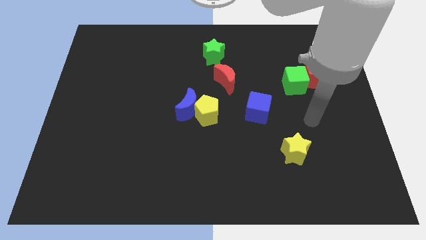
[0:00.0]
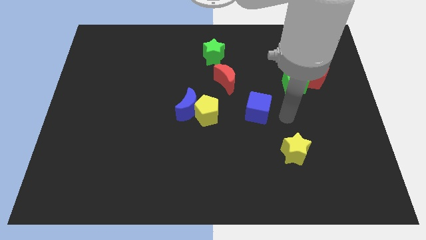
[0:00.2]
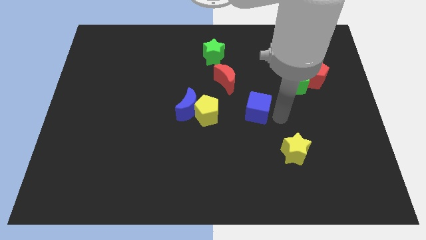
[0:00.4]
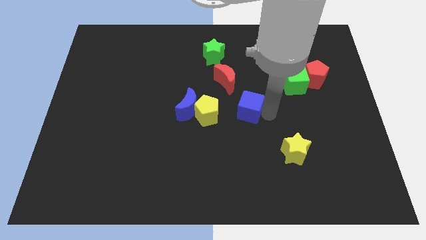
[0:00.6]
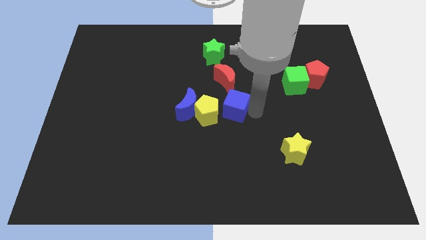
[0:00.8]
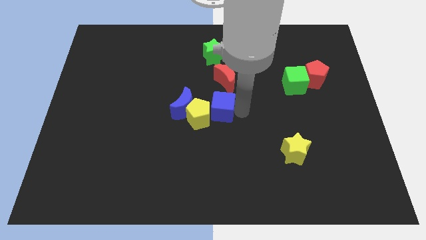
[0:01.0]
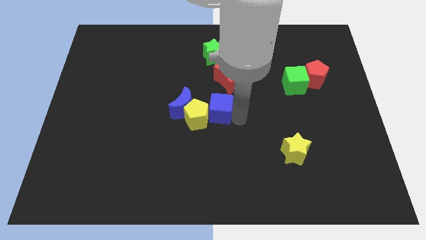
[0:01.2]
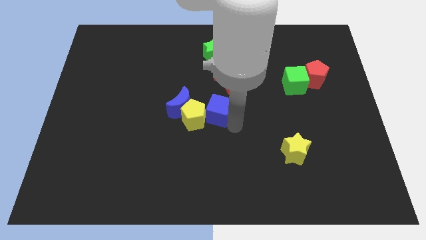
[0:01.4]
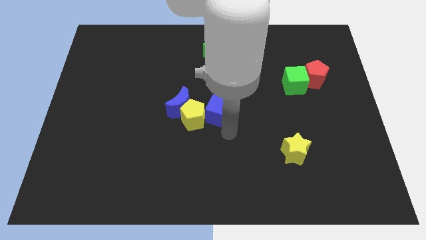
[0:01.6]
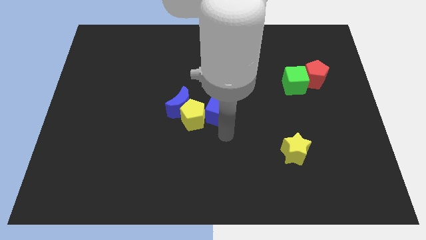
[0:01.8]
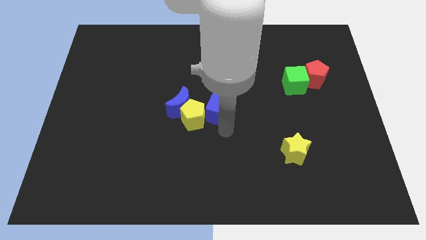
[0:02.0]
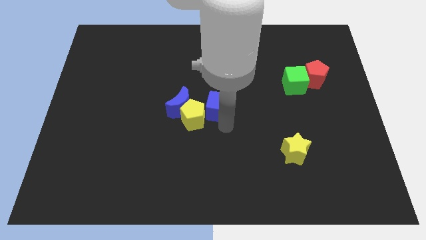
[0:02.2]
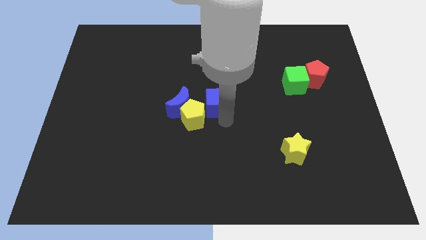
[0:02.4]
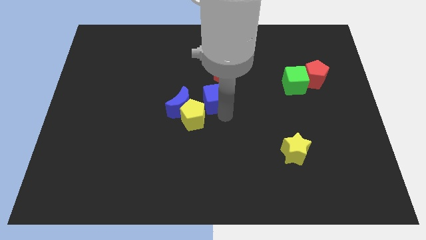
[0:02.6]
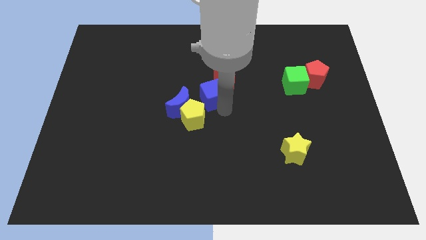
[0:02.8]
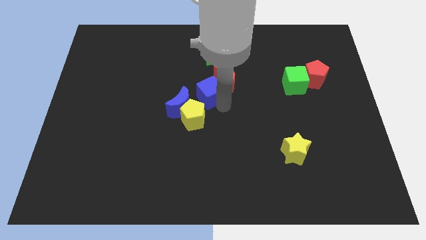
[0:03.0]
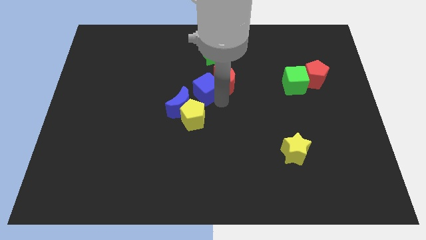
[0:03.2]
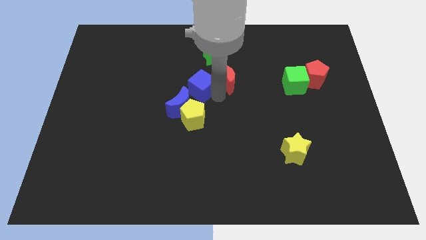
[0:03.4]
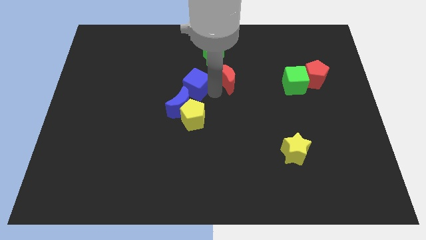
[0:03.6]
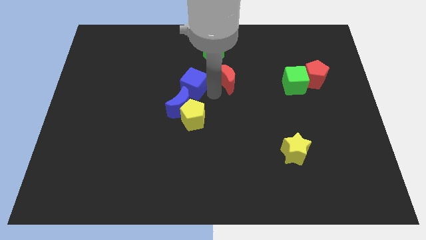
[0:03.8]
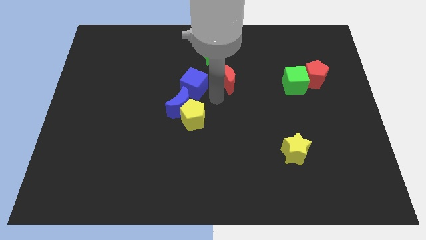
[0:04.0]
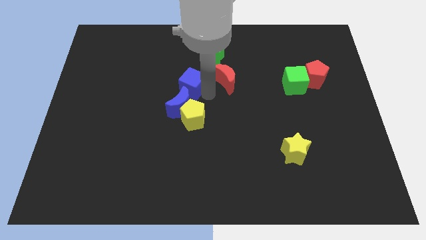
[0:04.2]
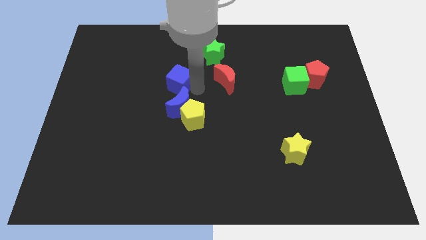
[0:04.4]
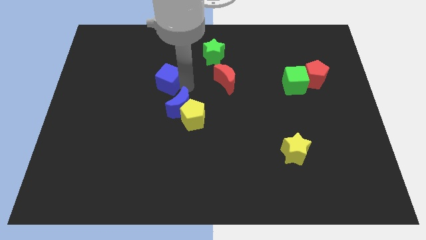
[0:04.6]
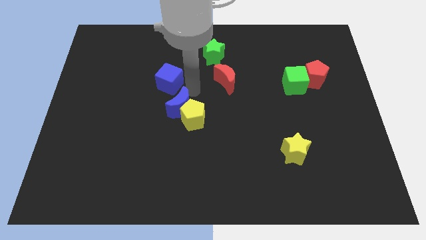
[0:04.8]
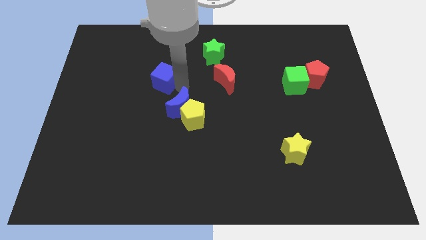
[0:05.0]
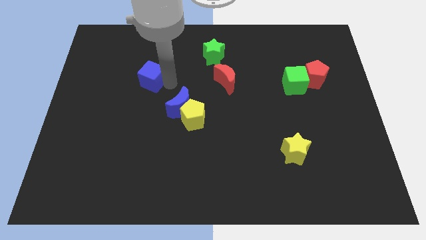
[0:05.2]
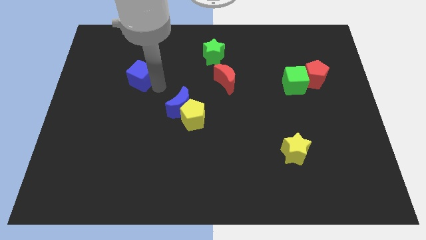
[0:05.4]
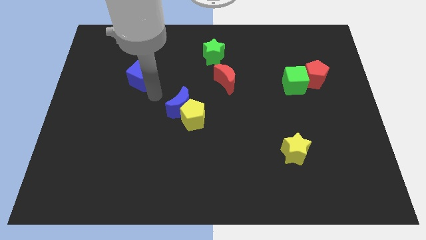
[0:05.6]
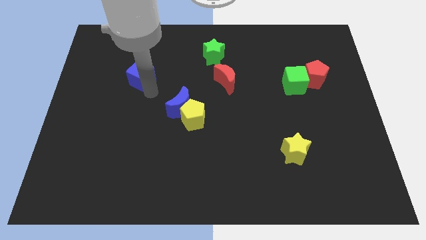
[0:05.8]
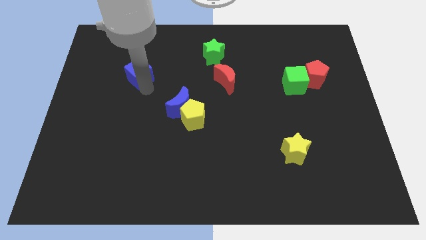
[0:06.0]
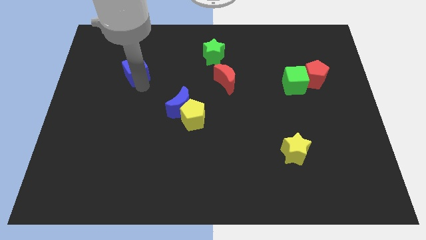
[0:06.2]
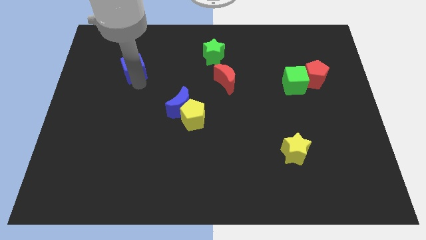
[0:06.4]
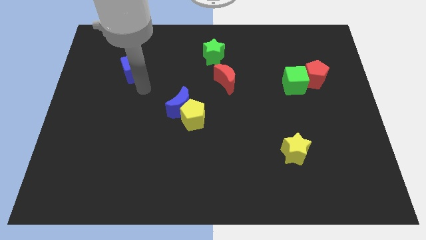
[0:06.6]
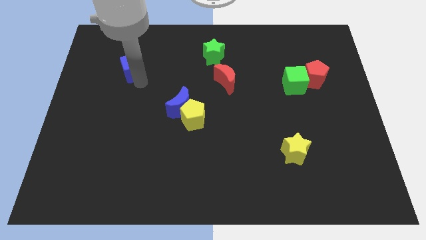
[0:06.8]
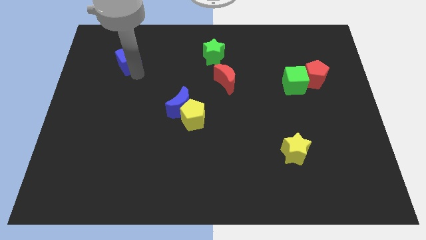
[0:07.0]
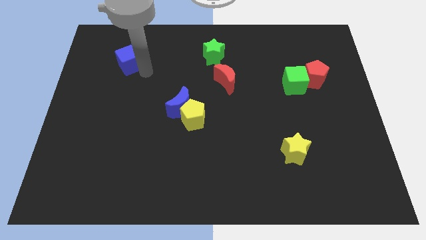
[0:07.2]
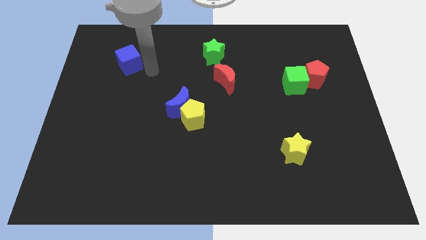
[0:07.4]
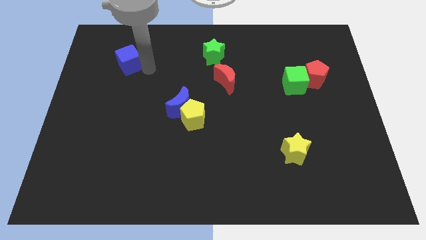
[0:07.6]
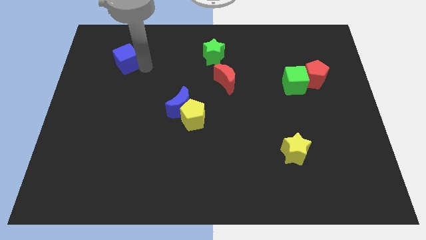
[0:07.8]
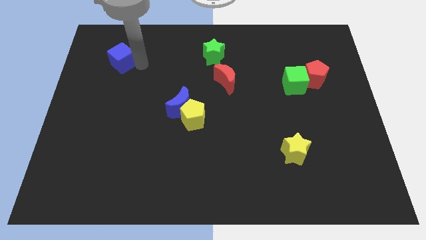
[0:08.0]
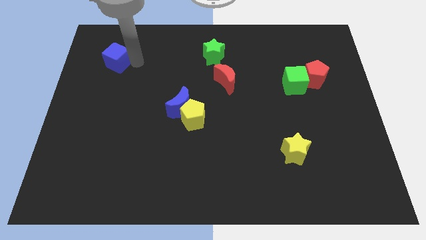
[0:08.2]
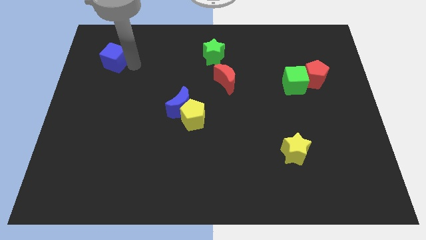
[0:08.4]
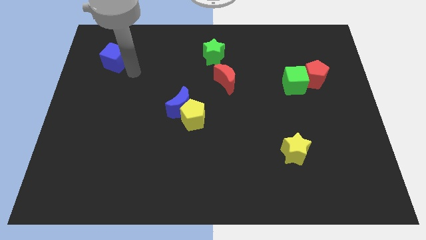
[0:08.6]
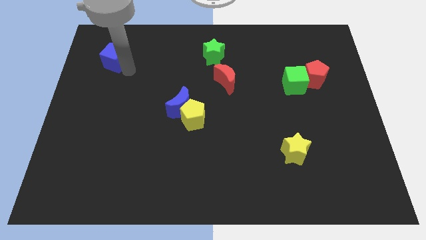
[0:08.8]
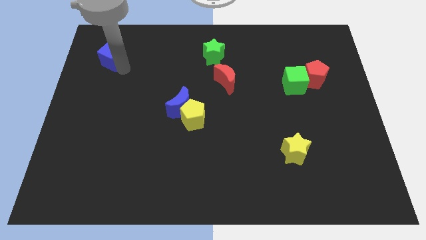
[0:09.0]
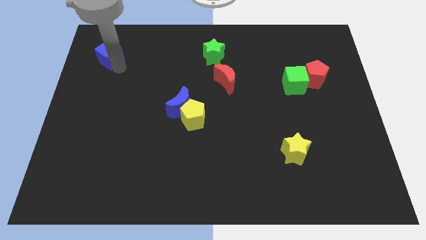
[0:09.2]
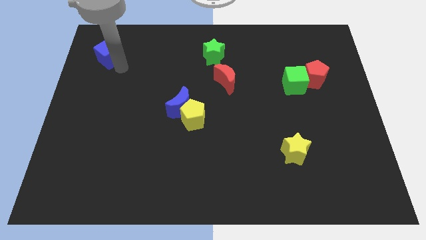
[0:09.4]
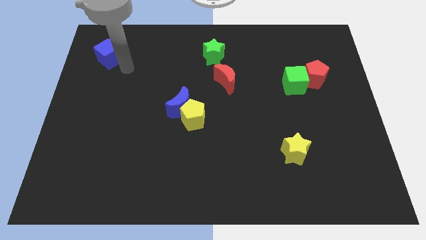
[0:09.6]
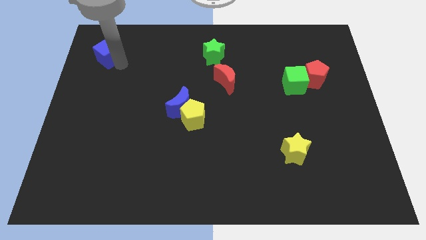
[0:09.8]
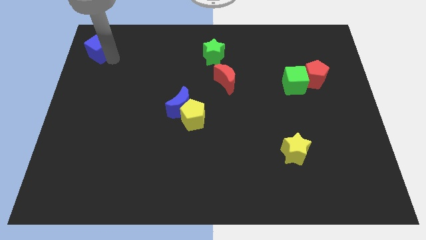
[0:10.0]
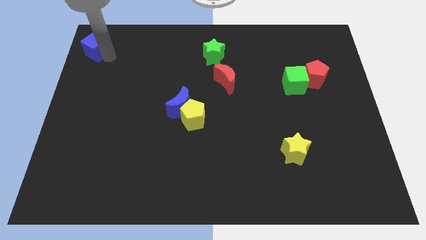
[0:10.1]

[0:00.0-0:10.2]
put the blue cube to the top left

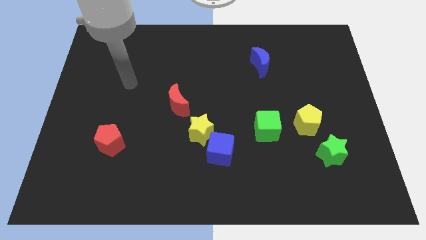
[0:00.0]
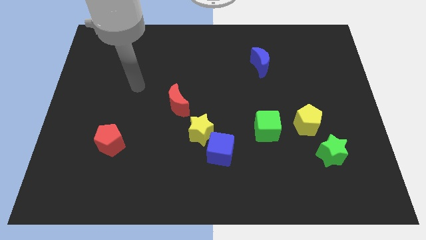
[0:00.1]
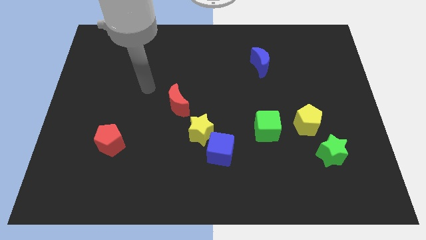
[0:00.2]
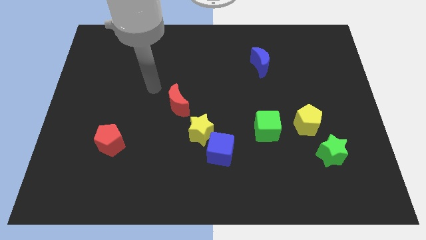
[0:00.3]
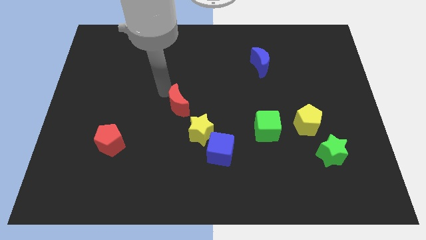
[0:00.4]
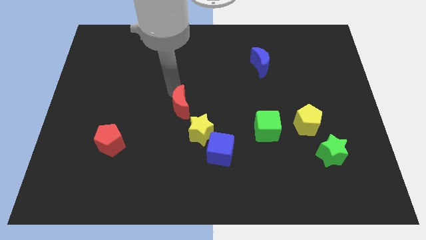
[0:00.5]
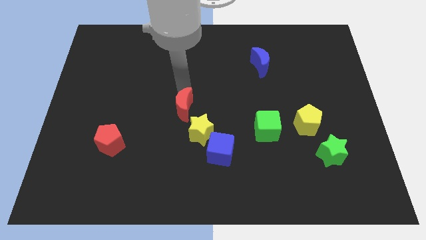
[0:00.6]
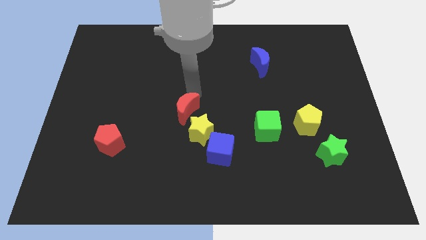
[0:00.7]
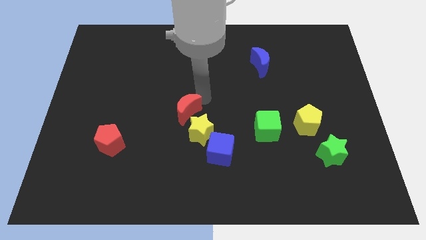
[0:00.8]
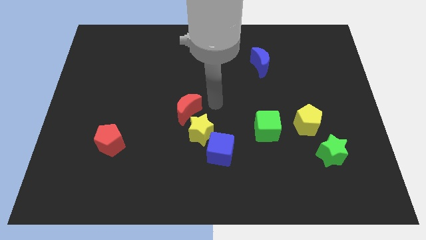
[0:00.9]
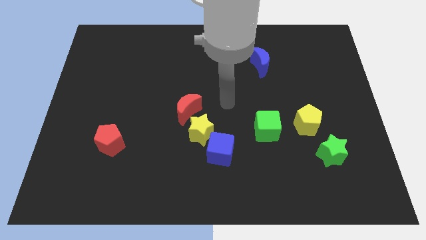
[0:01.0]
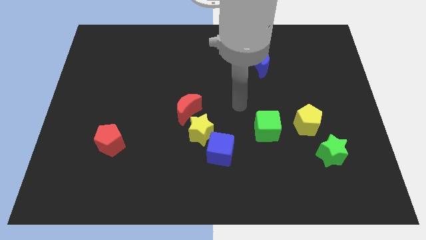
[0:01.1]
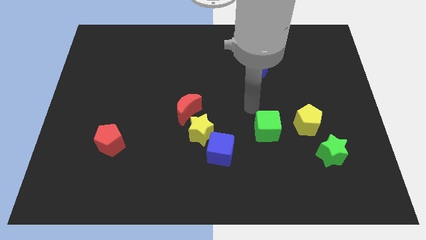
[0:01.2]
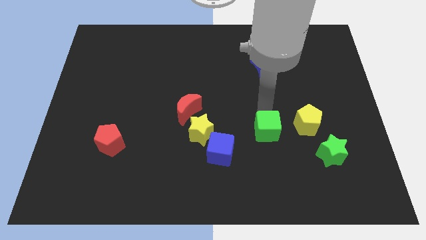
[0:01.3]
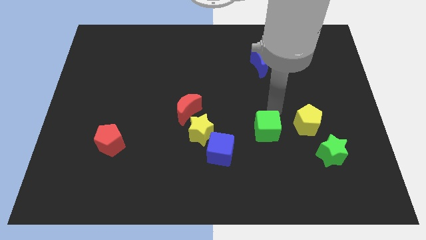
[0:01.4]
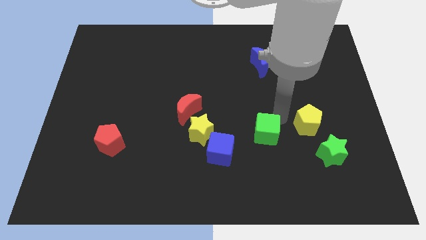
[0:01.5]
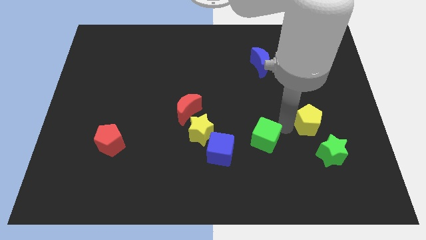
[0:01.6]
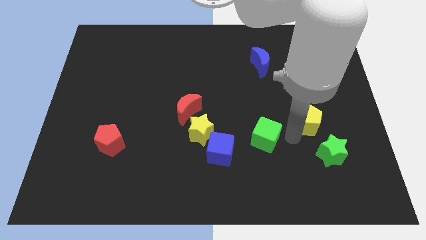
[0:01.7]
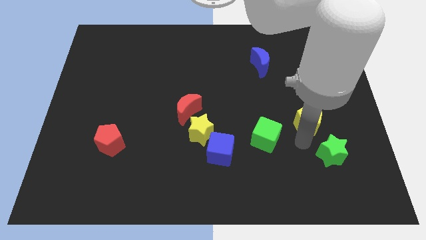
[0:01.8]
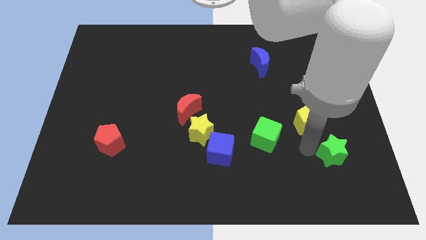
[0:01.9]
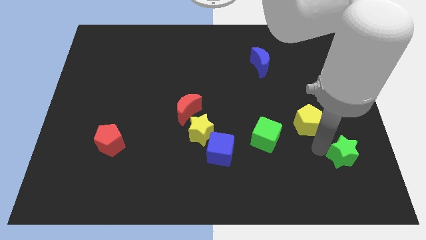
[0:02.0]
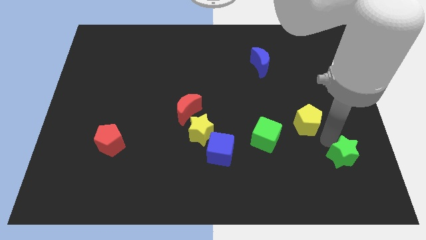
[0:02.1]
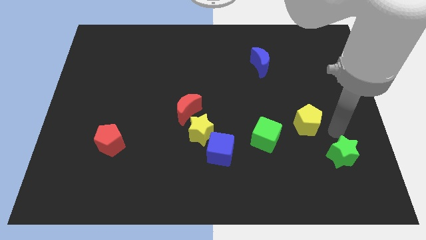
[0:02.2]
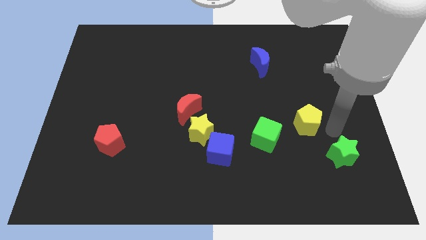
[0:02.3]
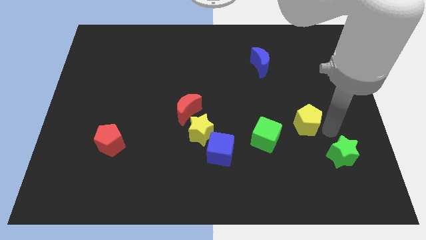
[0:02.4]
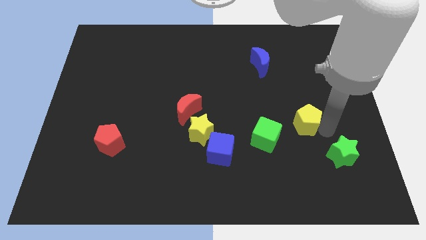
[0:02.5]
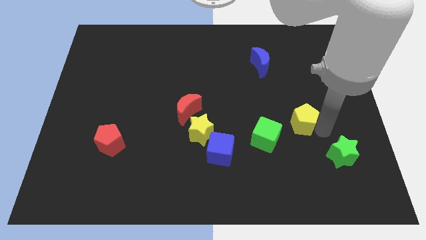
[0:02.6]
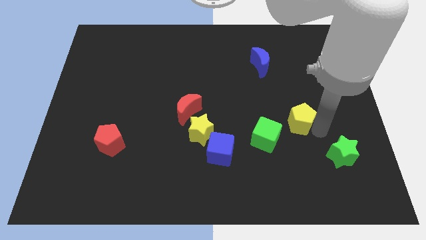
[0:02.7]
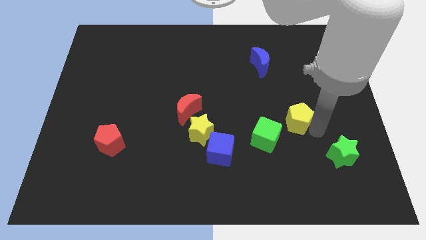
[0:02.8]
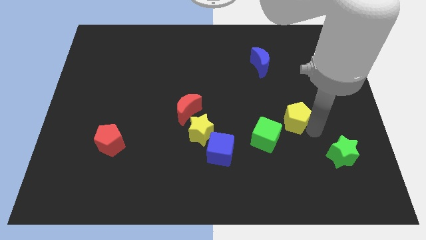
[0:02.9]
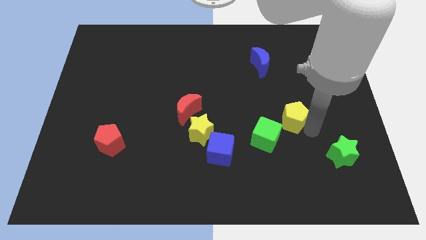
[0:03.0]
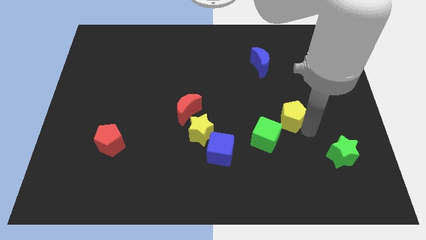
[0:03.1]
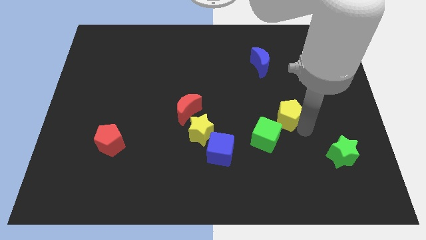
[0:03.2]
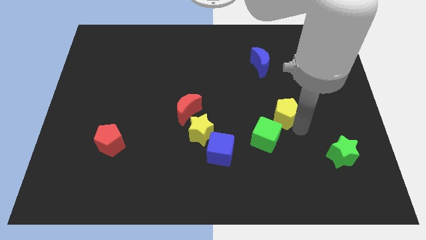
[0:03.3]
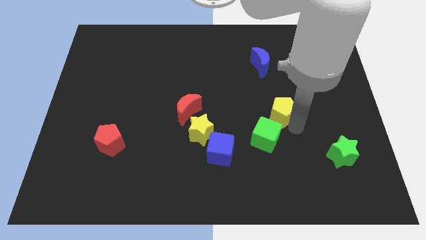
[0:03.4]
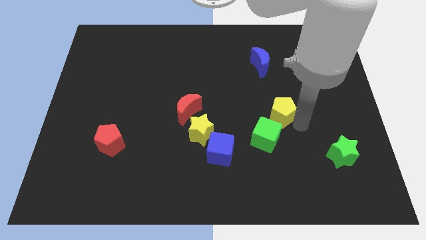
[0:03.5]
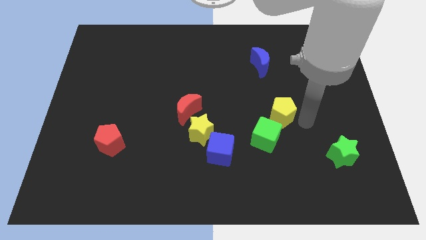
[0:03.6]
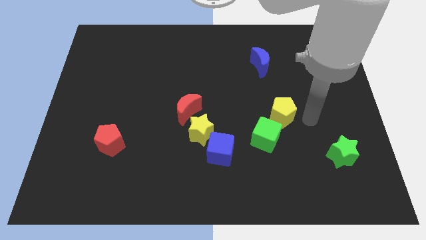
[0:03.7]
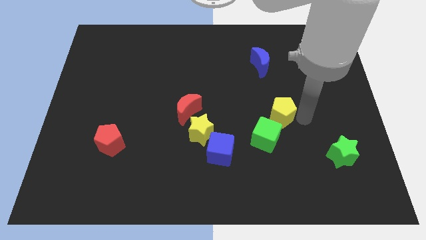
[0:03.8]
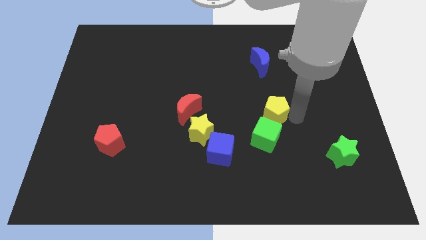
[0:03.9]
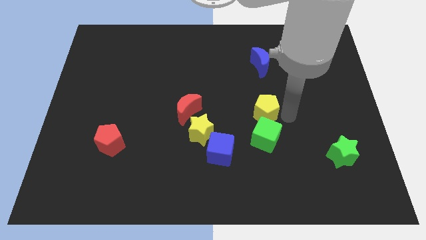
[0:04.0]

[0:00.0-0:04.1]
move the yellow pentagon to the middle
